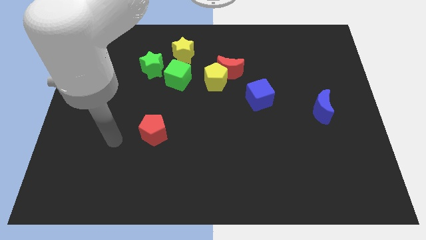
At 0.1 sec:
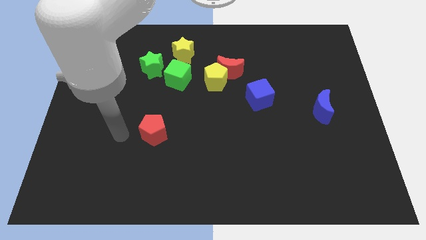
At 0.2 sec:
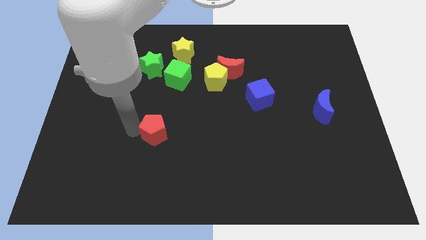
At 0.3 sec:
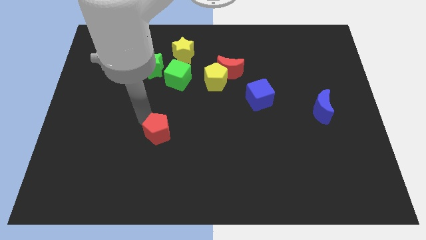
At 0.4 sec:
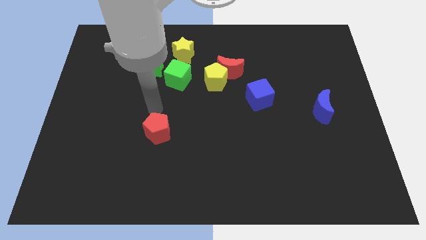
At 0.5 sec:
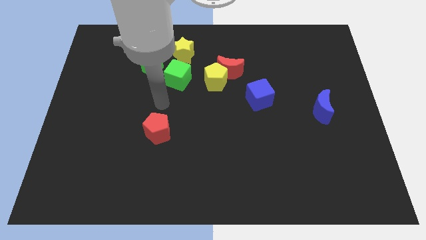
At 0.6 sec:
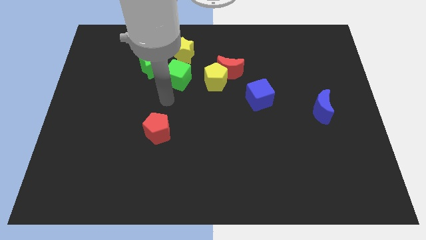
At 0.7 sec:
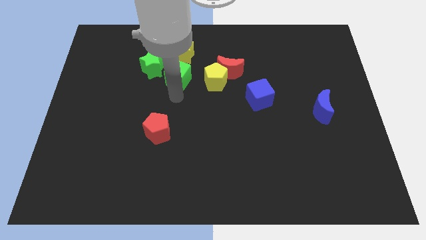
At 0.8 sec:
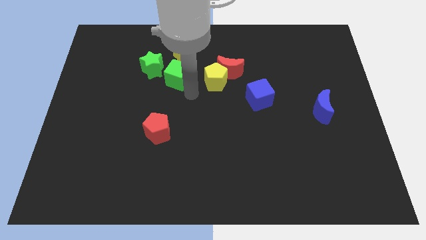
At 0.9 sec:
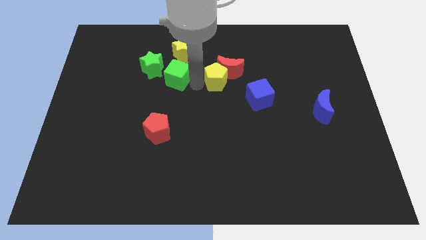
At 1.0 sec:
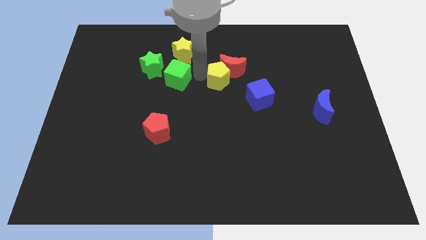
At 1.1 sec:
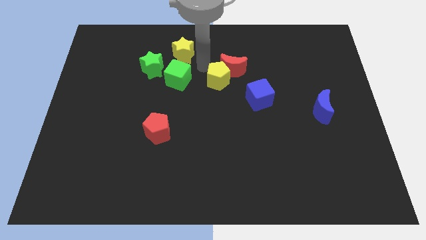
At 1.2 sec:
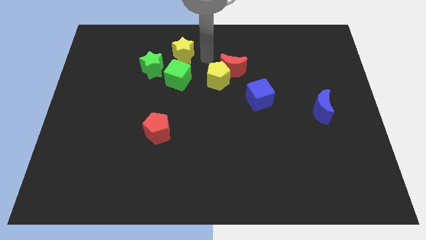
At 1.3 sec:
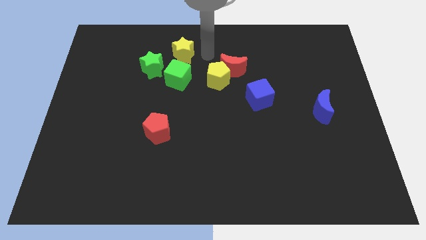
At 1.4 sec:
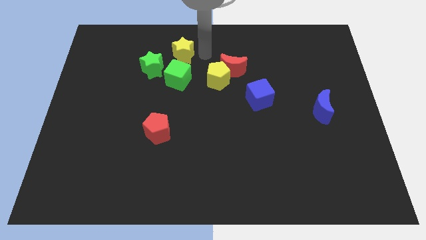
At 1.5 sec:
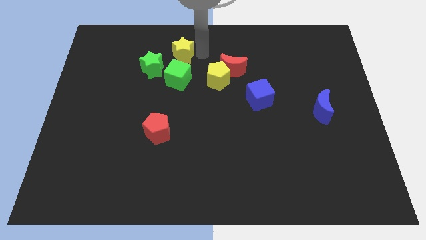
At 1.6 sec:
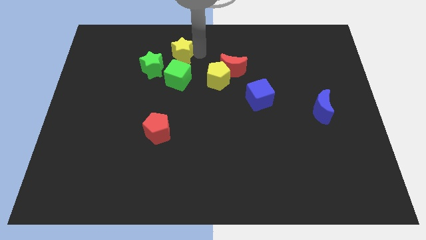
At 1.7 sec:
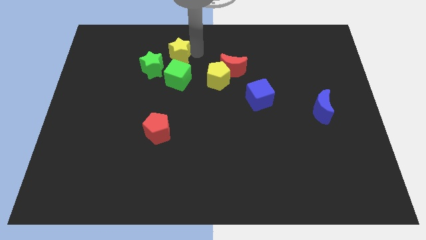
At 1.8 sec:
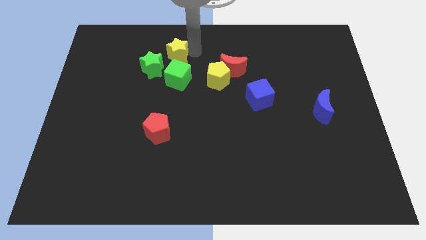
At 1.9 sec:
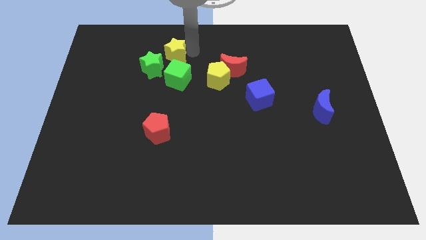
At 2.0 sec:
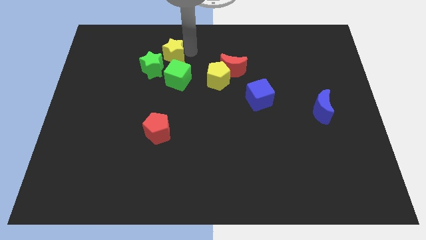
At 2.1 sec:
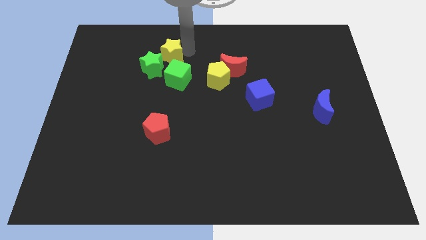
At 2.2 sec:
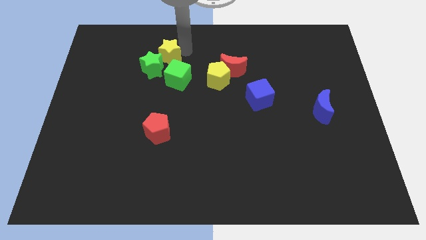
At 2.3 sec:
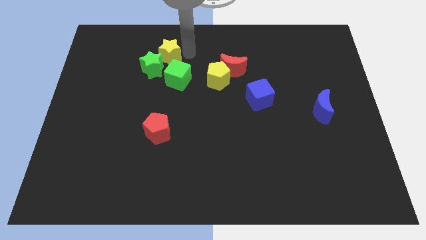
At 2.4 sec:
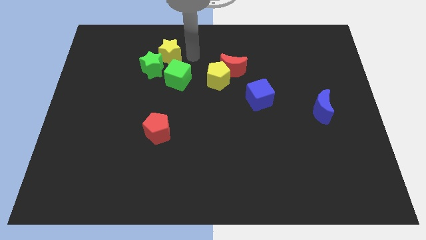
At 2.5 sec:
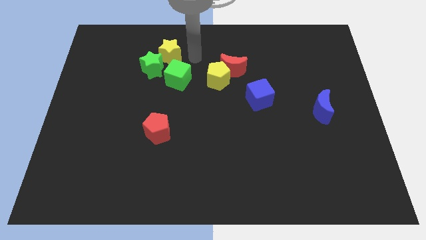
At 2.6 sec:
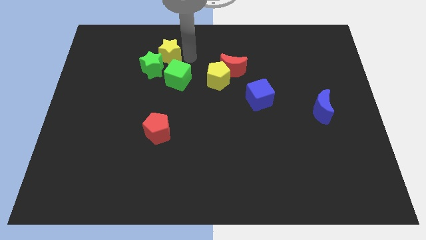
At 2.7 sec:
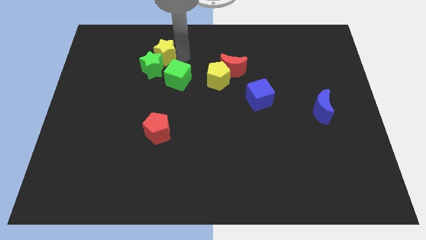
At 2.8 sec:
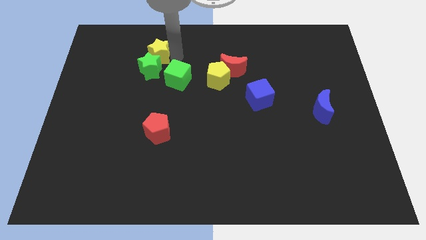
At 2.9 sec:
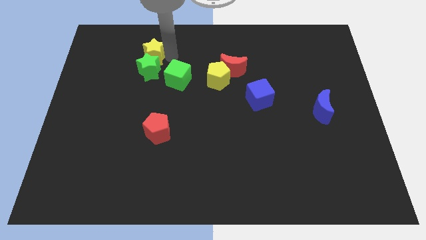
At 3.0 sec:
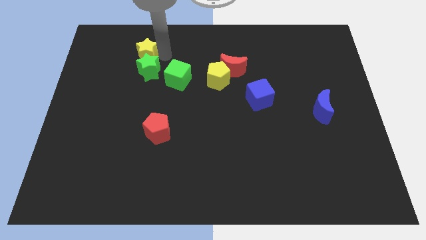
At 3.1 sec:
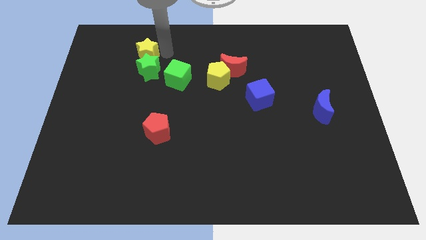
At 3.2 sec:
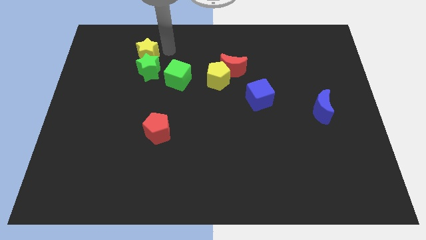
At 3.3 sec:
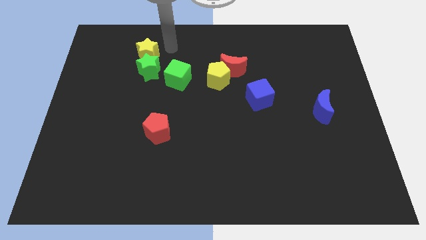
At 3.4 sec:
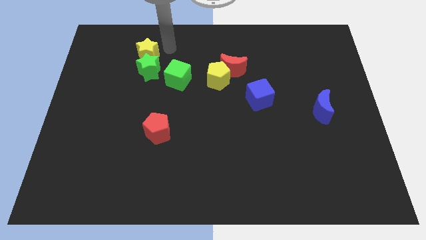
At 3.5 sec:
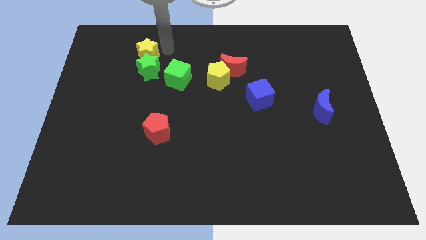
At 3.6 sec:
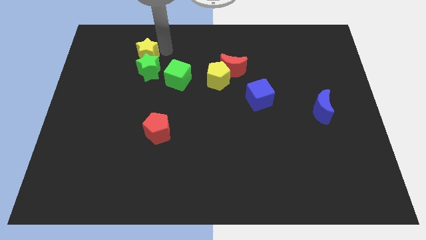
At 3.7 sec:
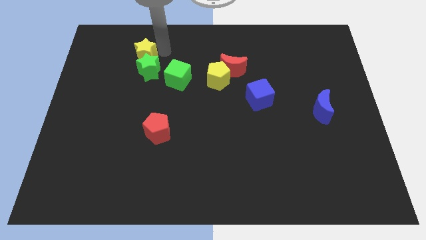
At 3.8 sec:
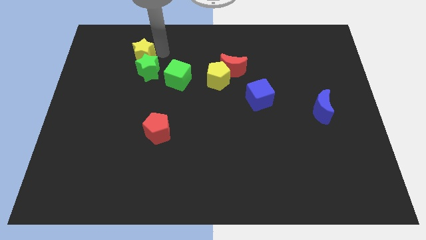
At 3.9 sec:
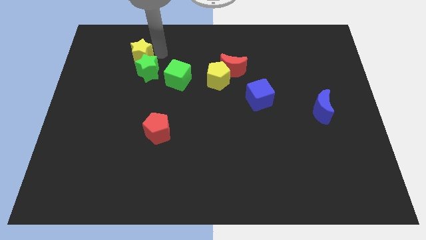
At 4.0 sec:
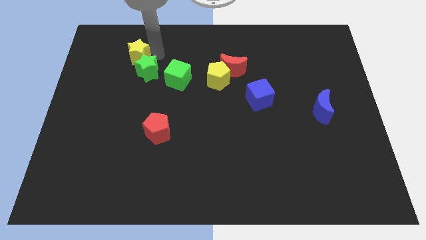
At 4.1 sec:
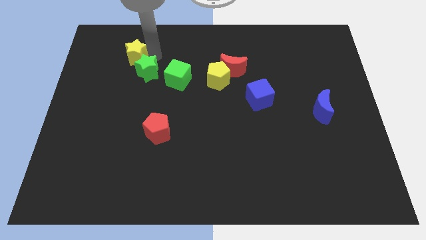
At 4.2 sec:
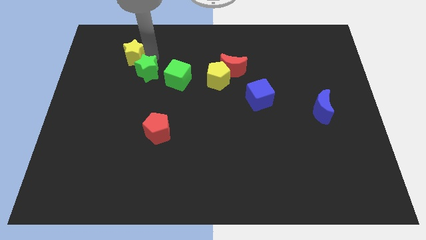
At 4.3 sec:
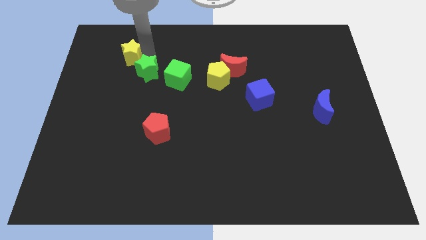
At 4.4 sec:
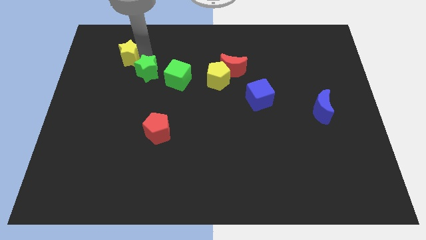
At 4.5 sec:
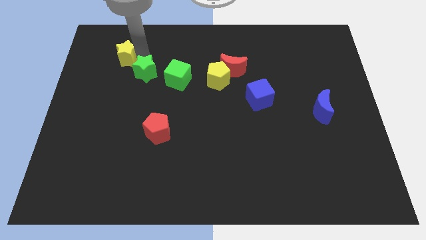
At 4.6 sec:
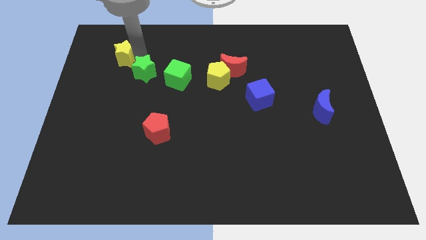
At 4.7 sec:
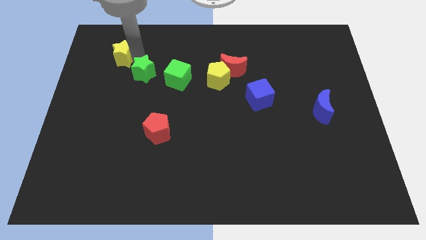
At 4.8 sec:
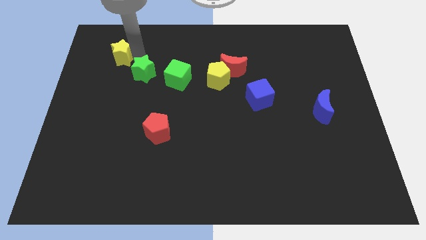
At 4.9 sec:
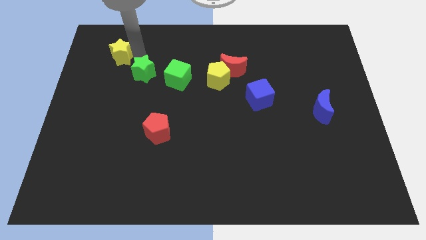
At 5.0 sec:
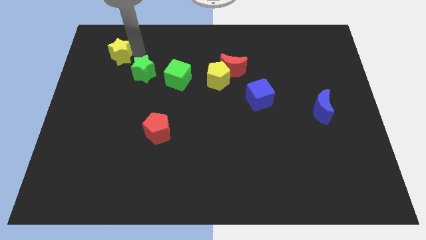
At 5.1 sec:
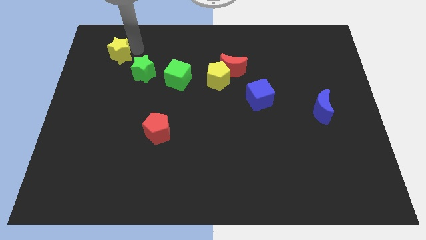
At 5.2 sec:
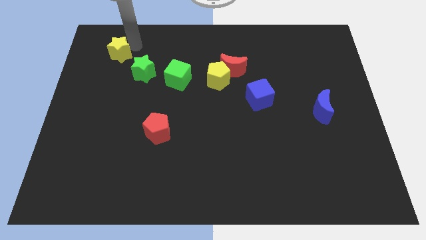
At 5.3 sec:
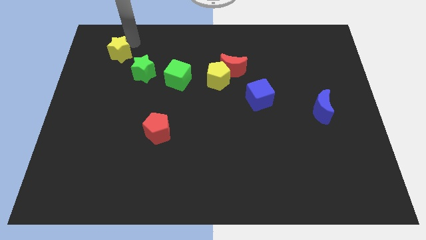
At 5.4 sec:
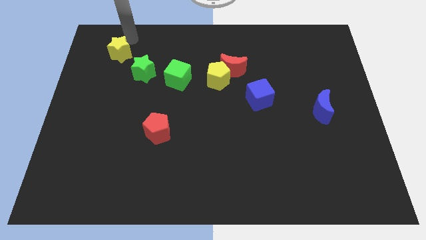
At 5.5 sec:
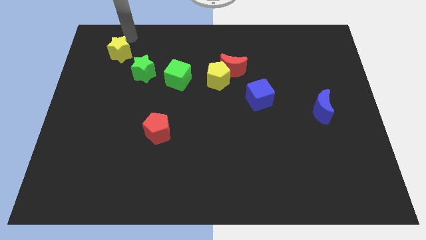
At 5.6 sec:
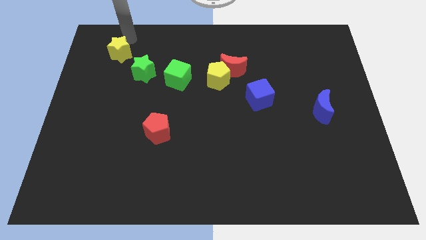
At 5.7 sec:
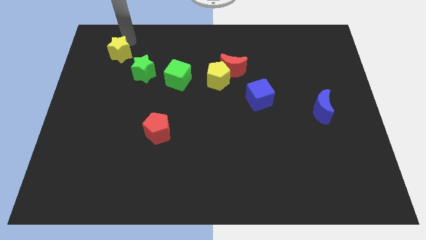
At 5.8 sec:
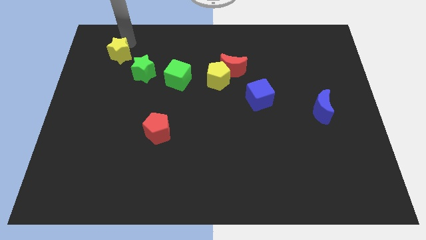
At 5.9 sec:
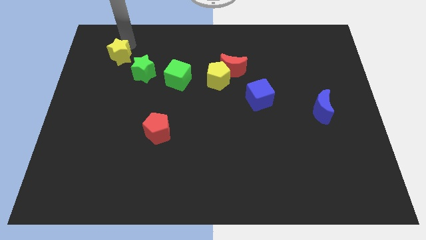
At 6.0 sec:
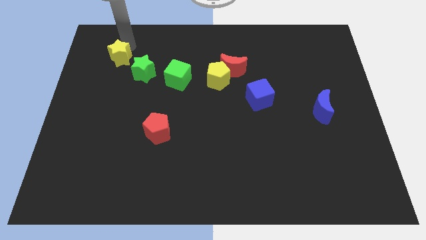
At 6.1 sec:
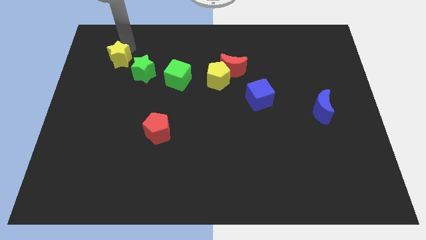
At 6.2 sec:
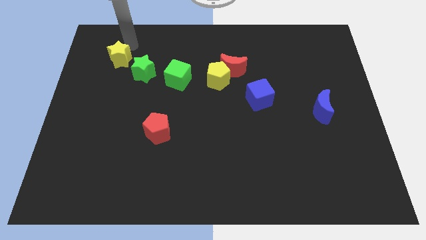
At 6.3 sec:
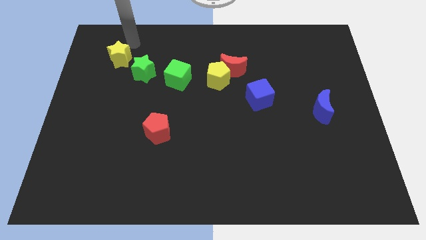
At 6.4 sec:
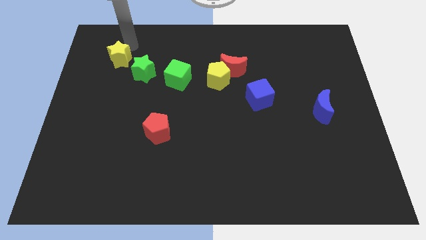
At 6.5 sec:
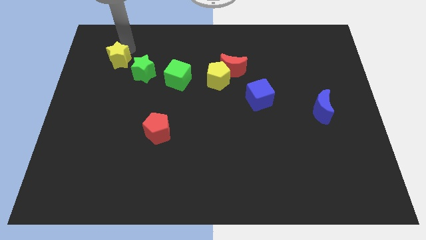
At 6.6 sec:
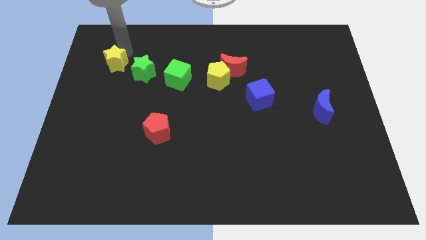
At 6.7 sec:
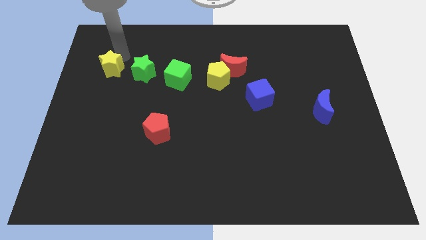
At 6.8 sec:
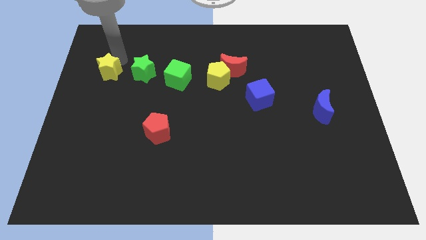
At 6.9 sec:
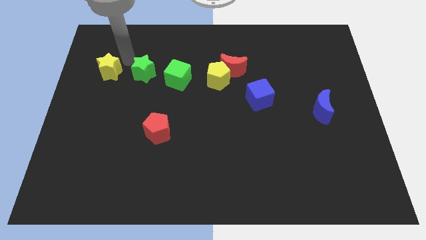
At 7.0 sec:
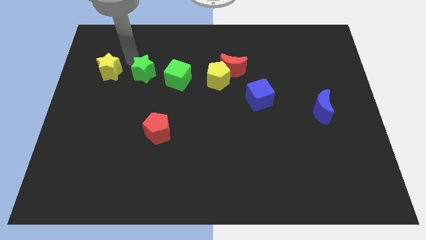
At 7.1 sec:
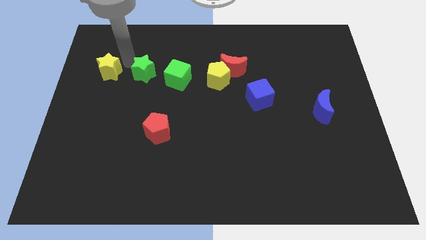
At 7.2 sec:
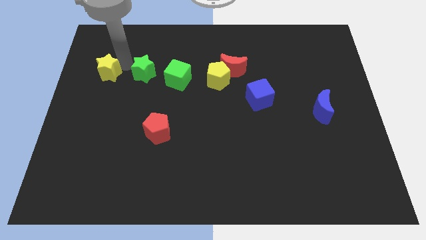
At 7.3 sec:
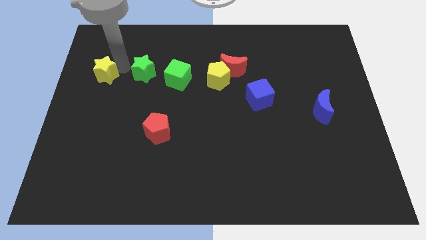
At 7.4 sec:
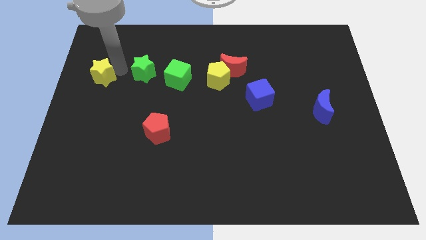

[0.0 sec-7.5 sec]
push the yellow star to the left side
